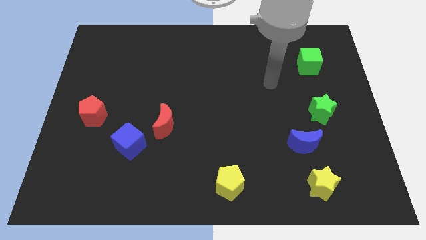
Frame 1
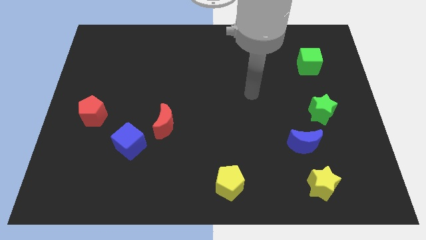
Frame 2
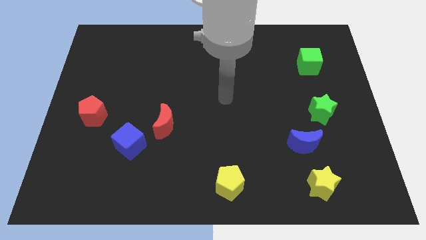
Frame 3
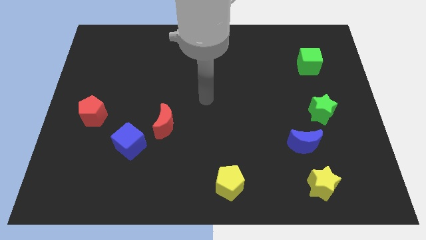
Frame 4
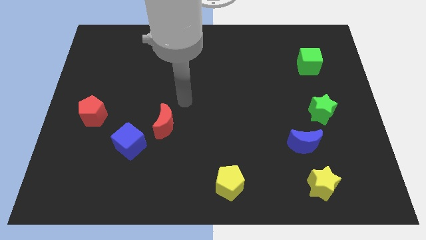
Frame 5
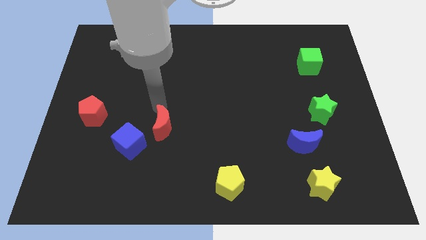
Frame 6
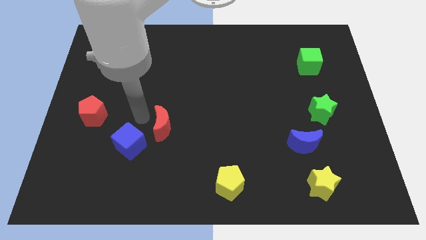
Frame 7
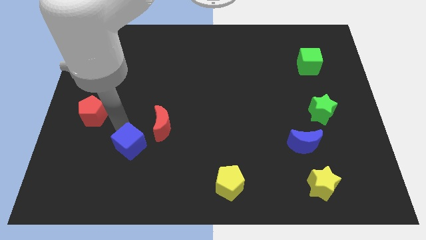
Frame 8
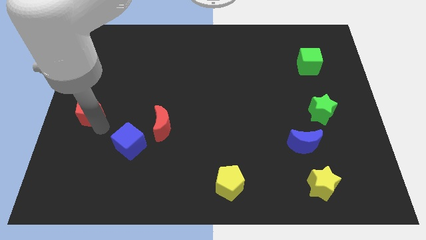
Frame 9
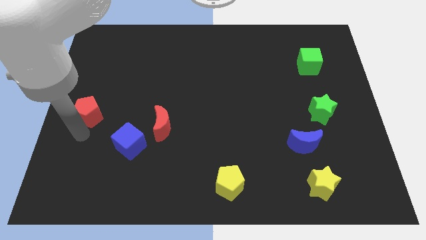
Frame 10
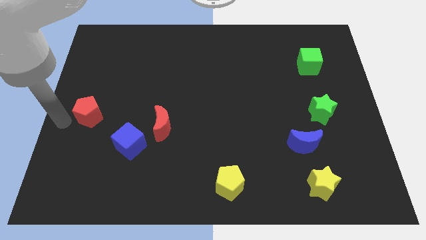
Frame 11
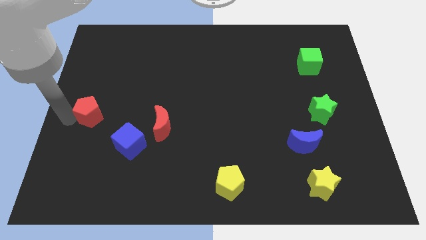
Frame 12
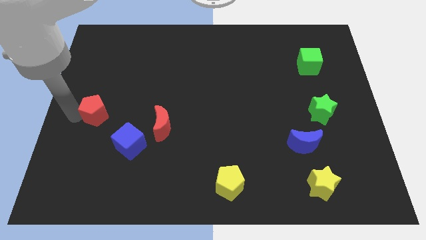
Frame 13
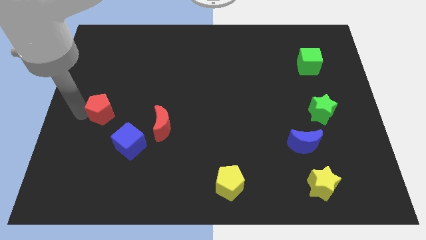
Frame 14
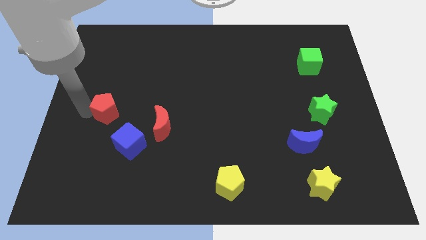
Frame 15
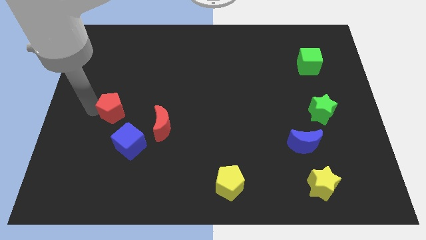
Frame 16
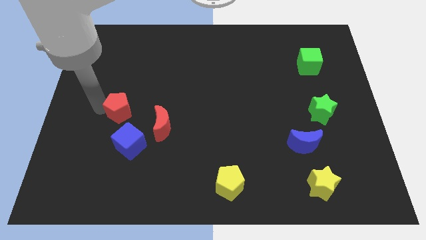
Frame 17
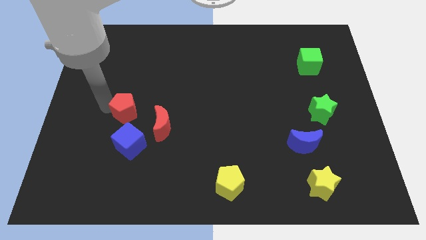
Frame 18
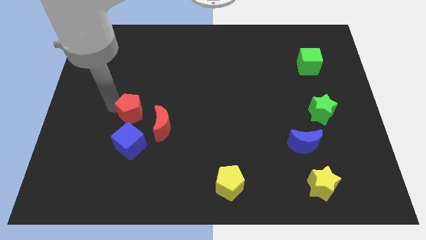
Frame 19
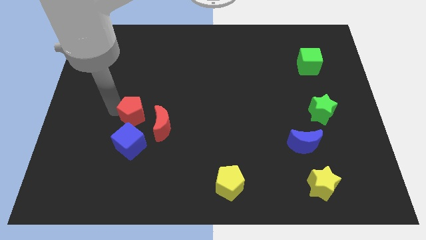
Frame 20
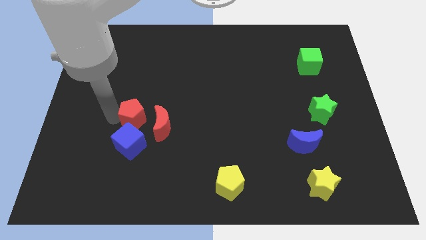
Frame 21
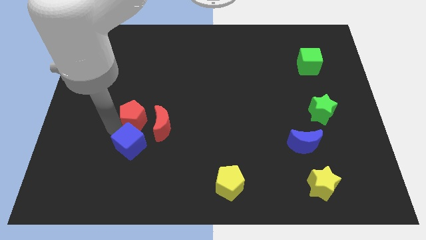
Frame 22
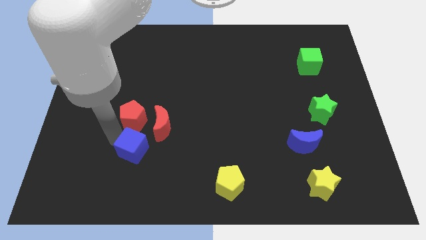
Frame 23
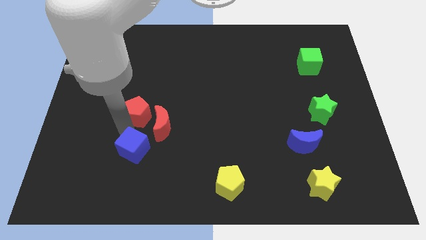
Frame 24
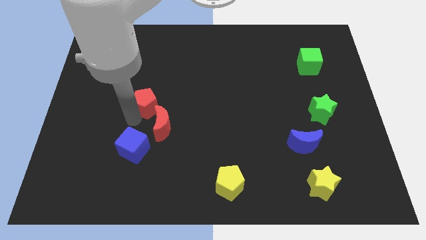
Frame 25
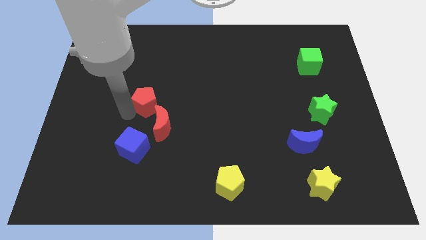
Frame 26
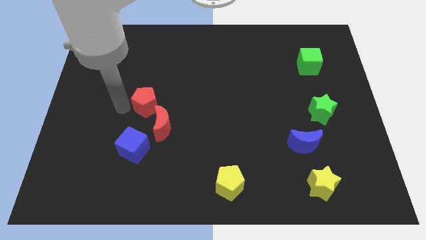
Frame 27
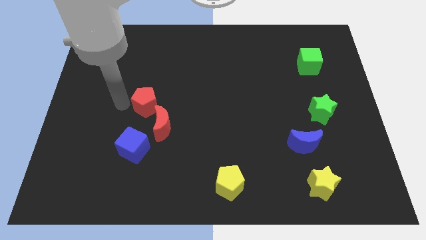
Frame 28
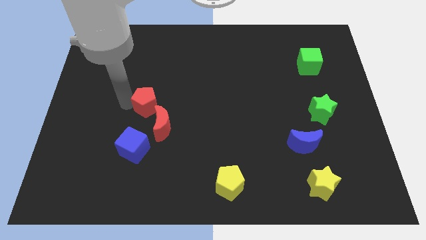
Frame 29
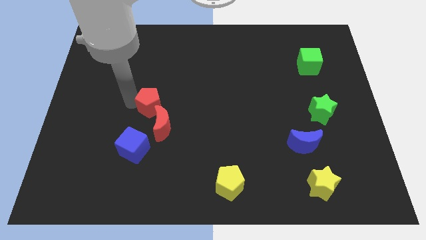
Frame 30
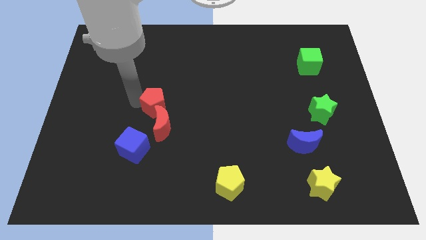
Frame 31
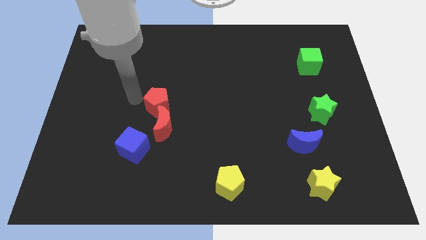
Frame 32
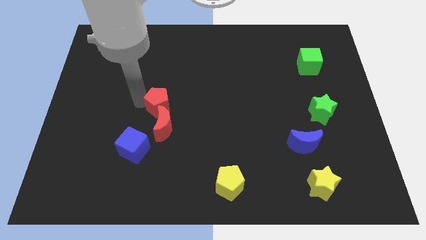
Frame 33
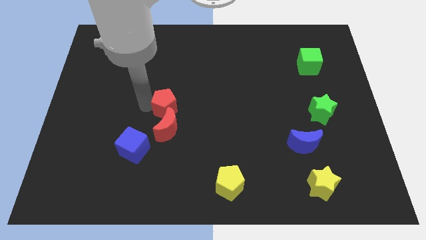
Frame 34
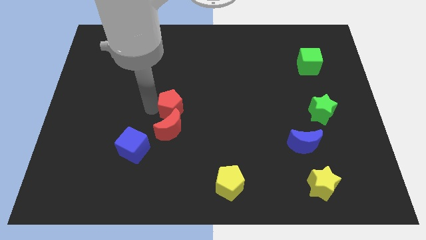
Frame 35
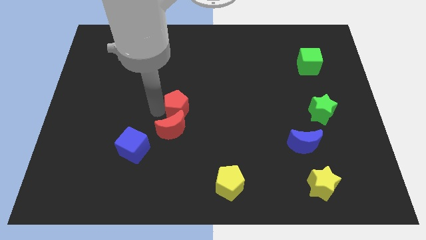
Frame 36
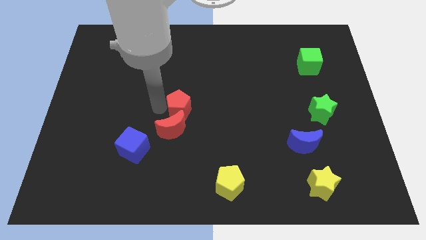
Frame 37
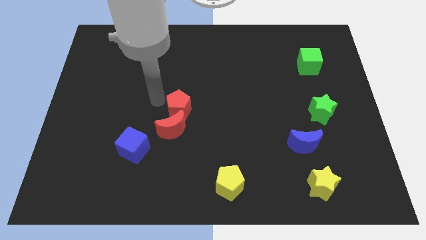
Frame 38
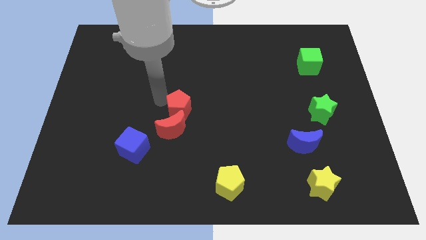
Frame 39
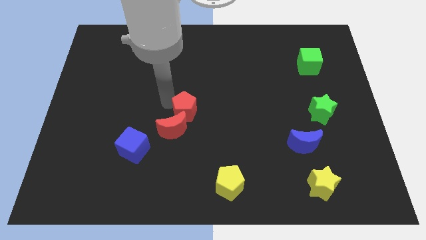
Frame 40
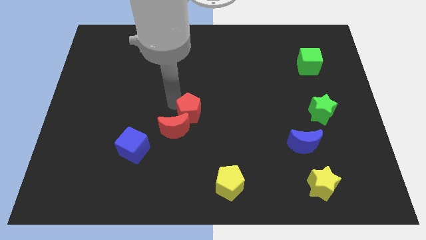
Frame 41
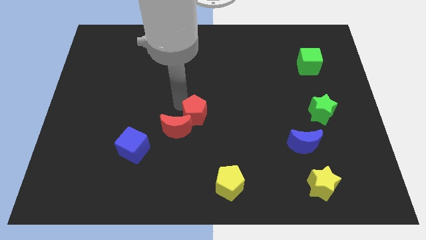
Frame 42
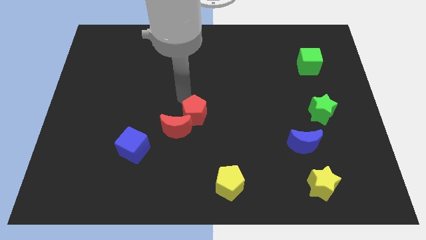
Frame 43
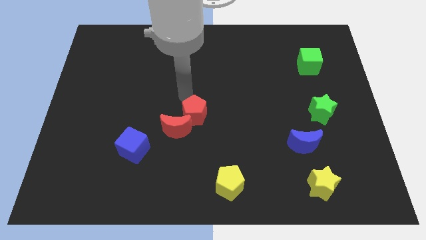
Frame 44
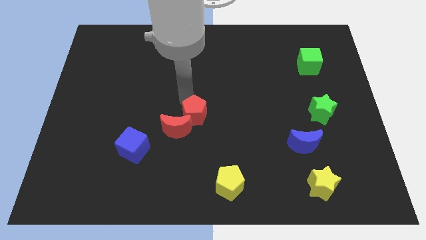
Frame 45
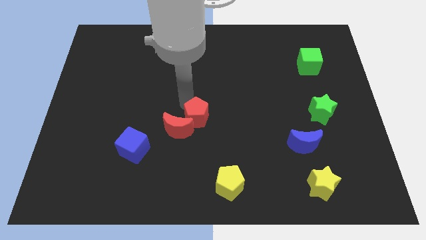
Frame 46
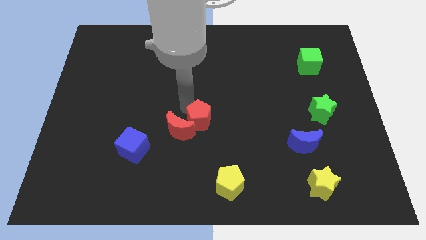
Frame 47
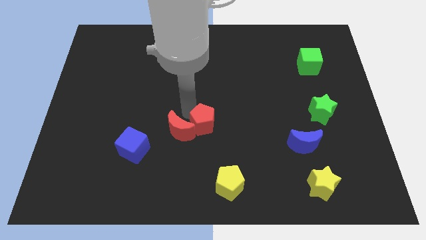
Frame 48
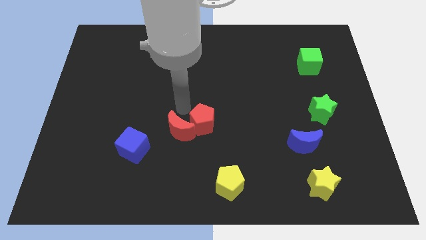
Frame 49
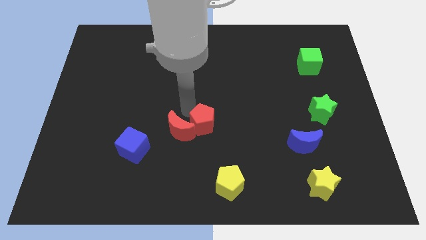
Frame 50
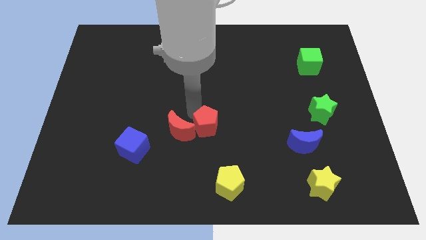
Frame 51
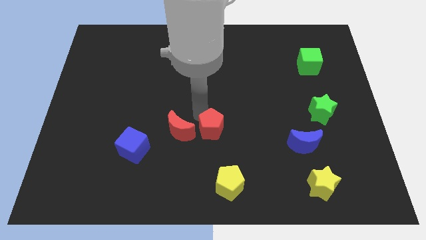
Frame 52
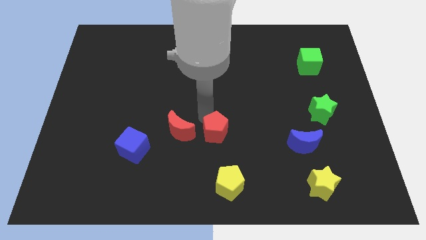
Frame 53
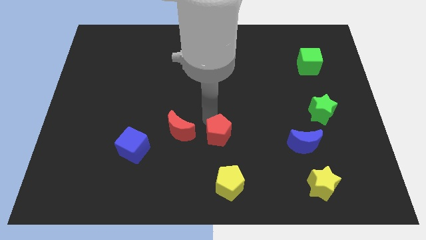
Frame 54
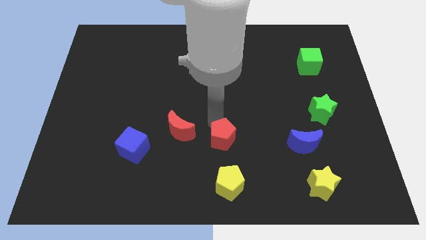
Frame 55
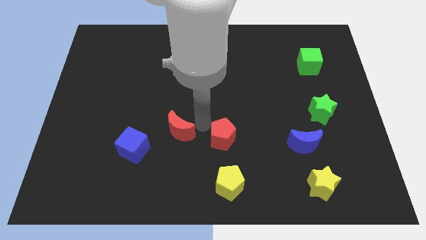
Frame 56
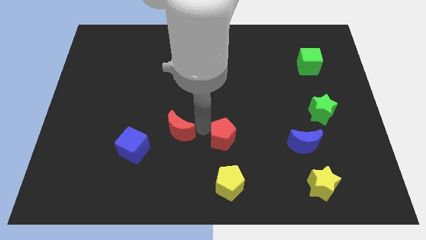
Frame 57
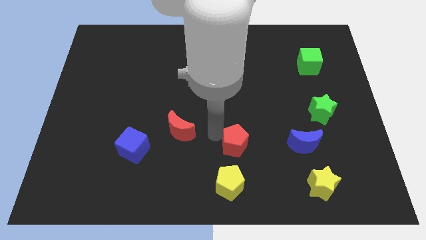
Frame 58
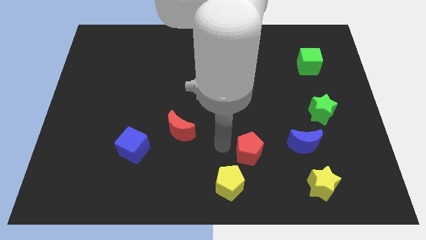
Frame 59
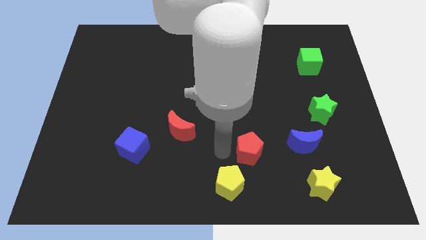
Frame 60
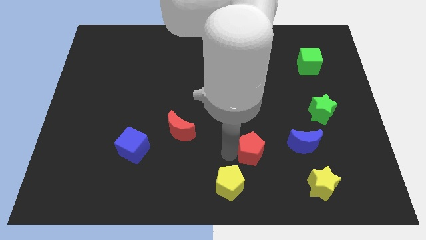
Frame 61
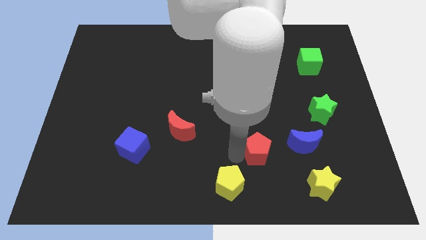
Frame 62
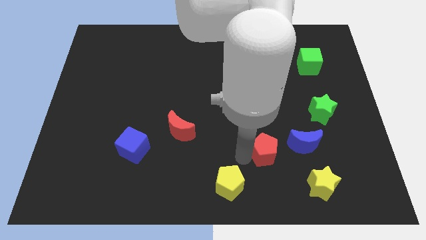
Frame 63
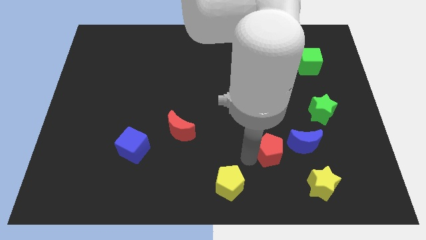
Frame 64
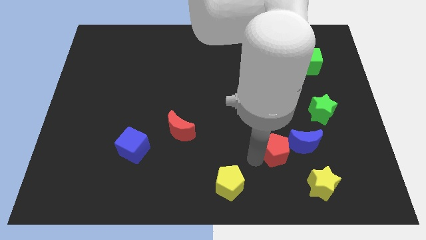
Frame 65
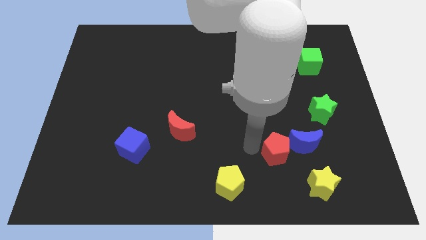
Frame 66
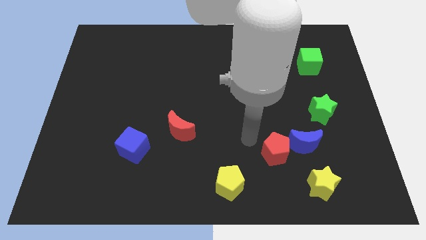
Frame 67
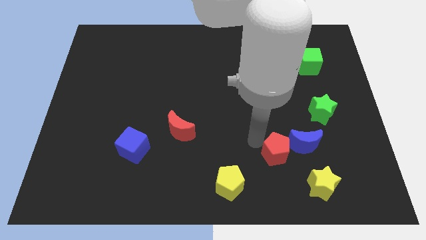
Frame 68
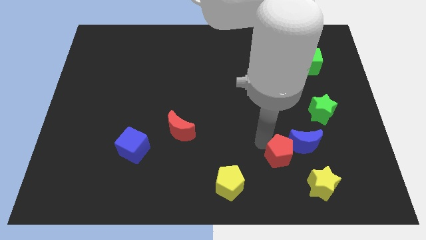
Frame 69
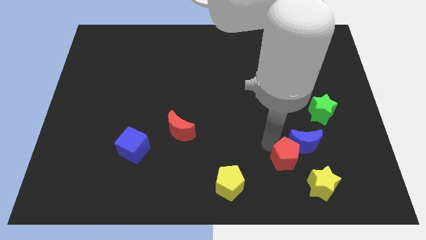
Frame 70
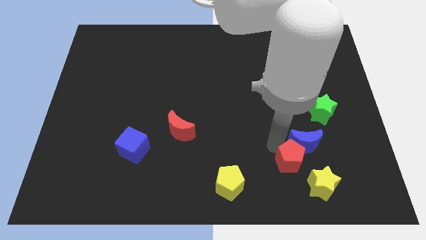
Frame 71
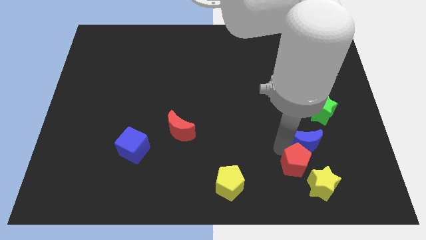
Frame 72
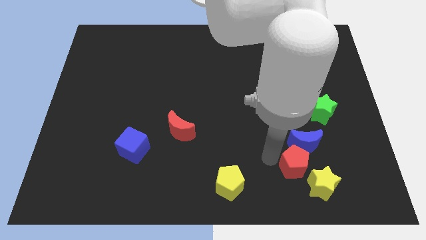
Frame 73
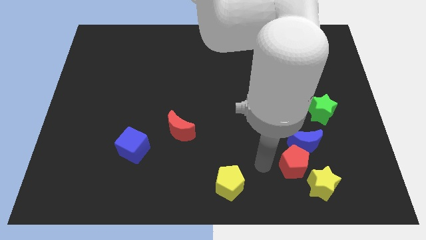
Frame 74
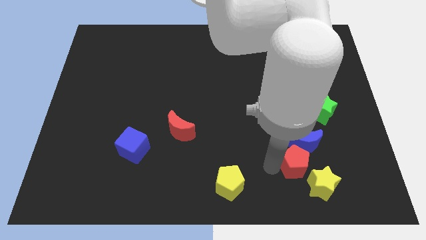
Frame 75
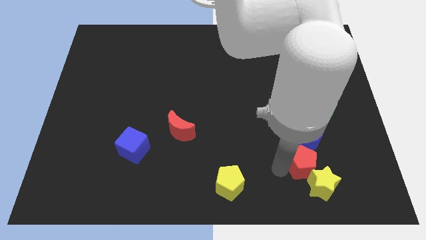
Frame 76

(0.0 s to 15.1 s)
slide the red pentagon to the bottom right of the blue moon

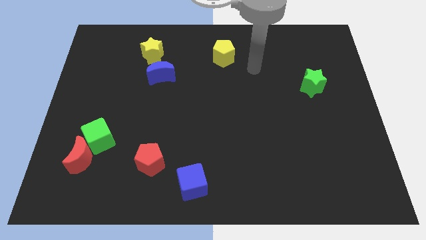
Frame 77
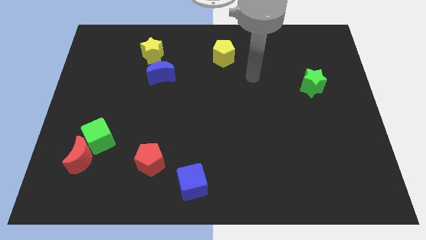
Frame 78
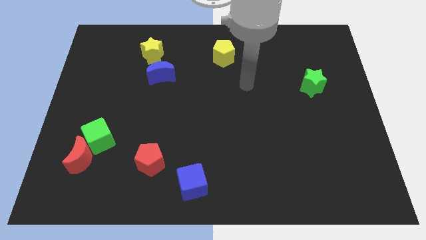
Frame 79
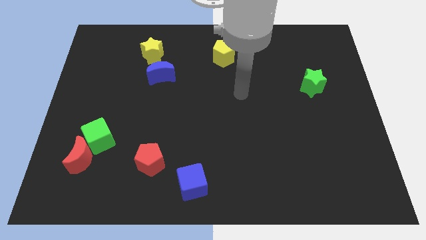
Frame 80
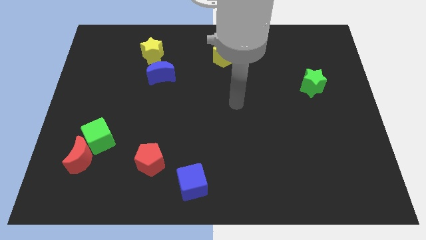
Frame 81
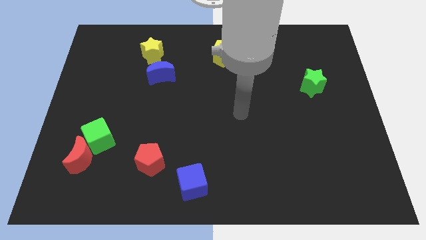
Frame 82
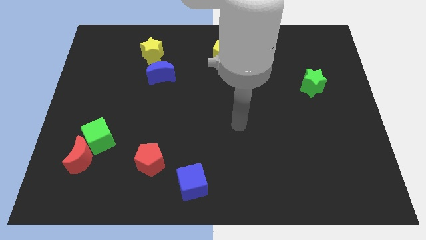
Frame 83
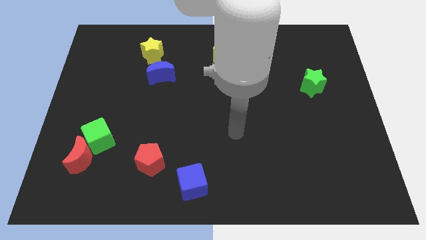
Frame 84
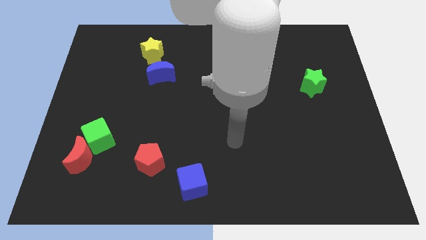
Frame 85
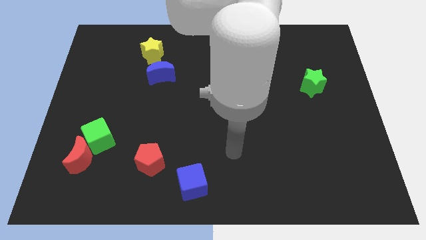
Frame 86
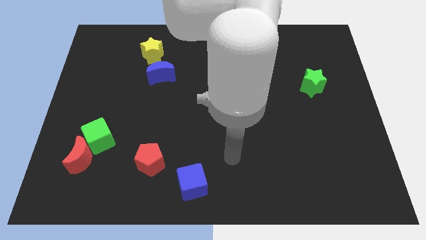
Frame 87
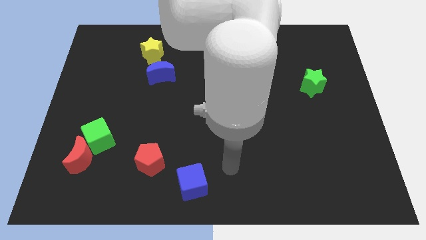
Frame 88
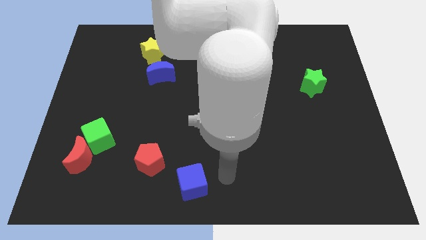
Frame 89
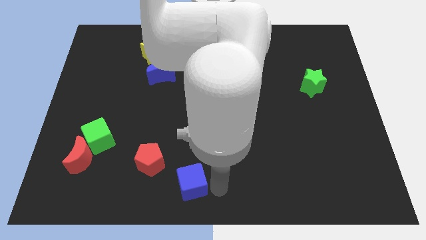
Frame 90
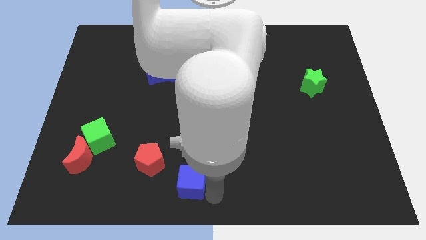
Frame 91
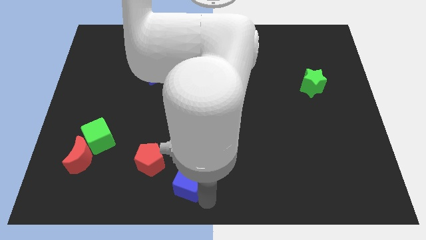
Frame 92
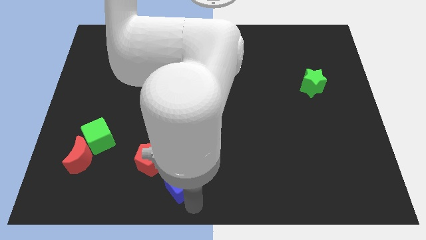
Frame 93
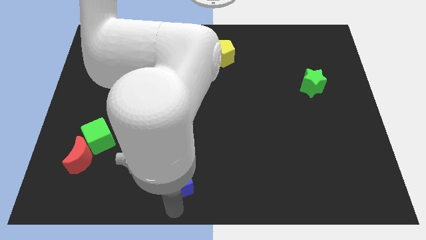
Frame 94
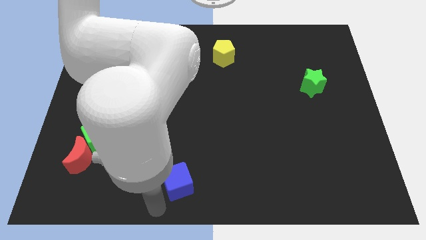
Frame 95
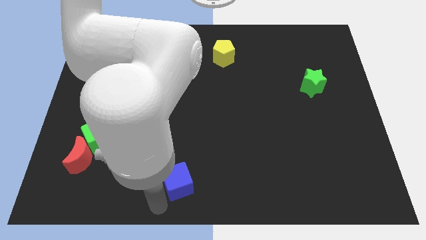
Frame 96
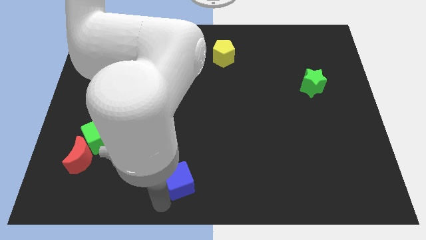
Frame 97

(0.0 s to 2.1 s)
slide the blue cube right of the red pentagon
